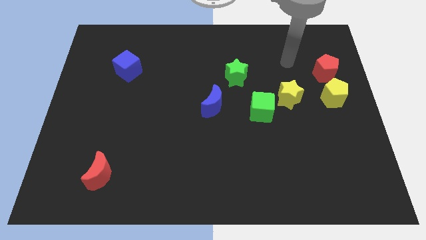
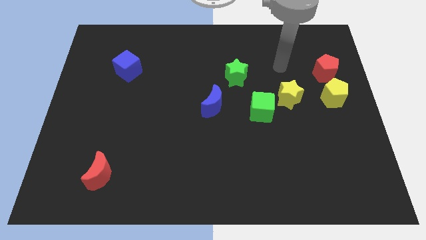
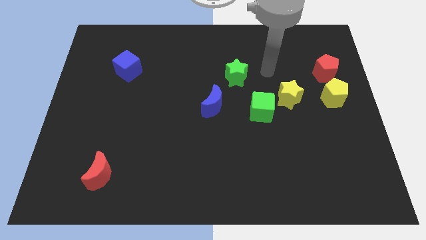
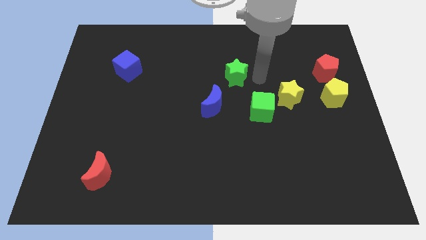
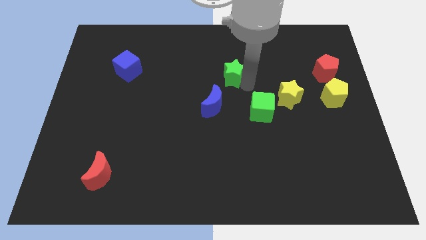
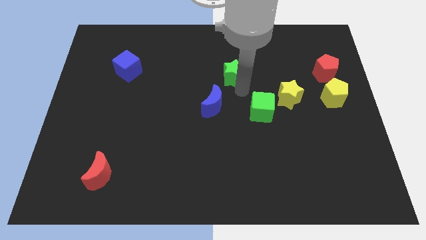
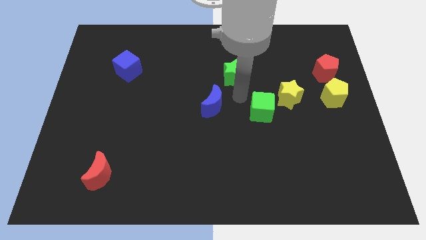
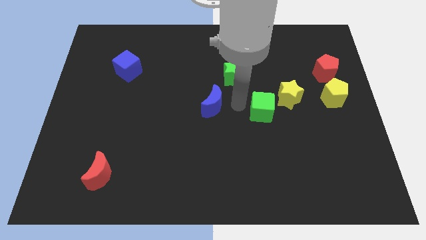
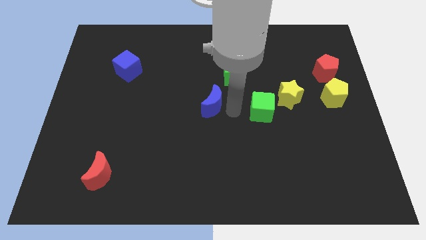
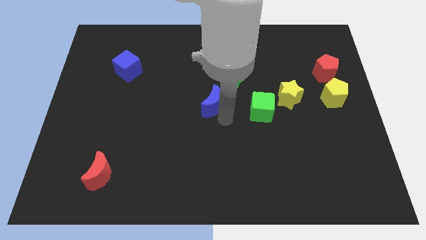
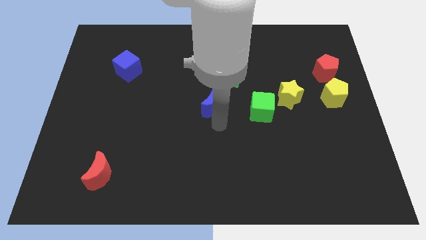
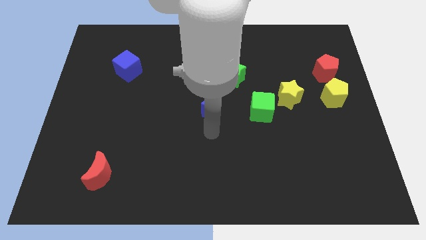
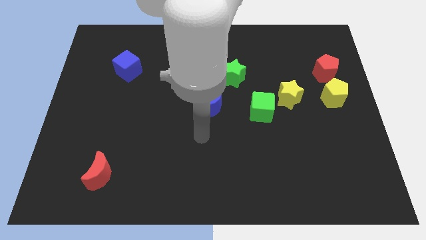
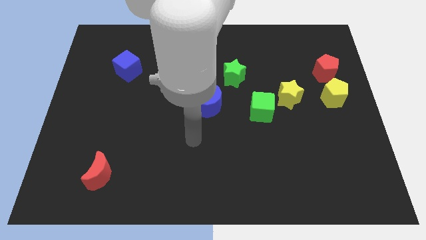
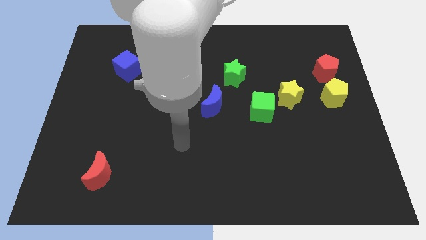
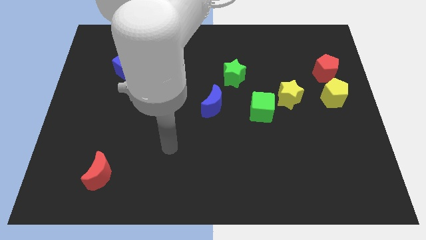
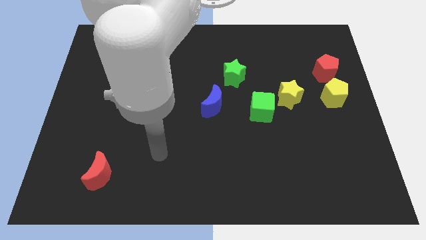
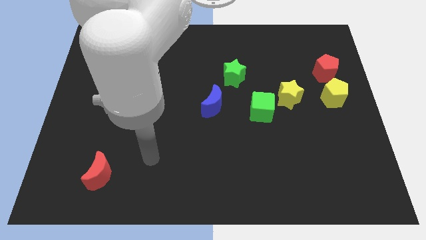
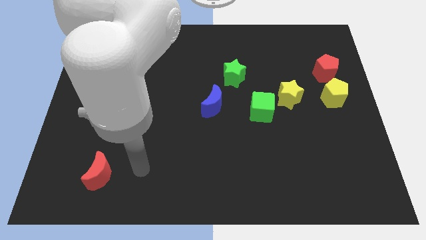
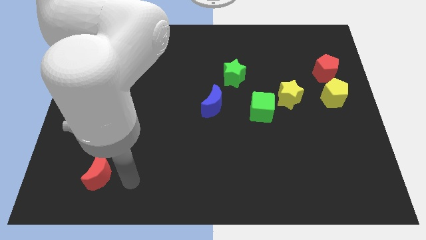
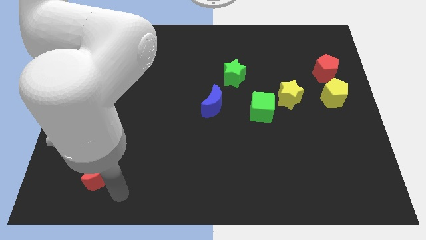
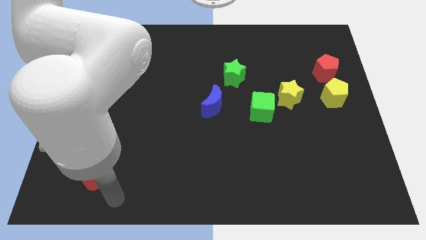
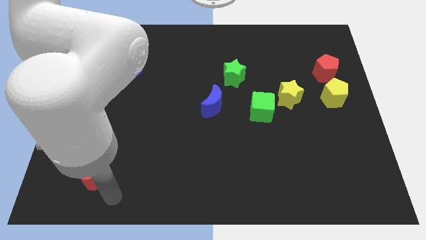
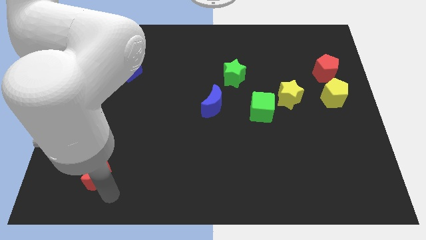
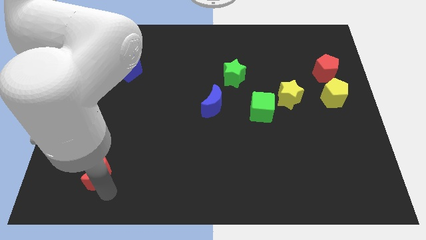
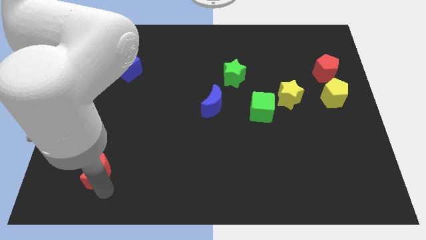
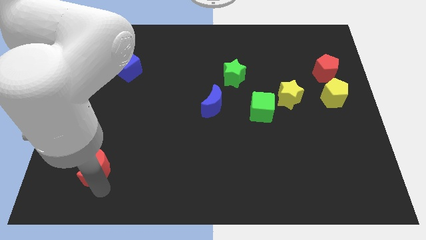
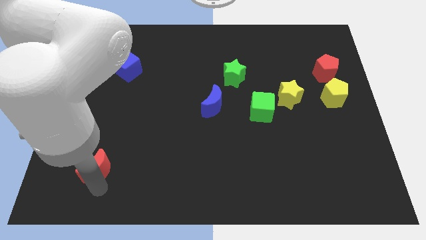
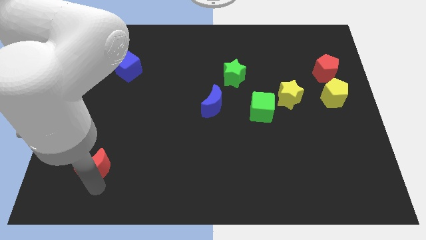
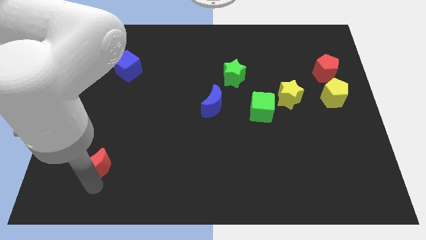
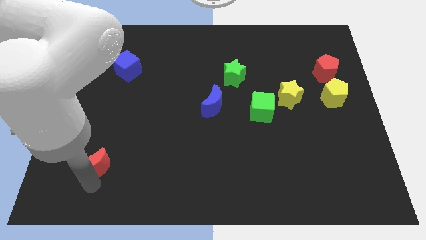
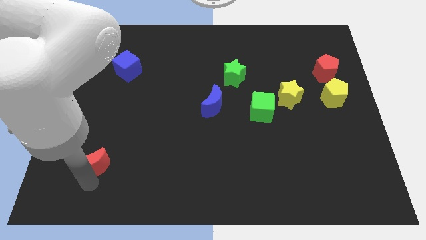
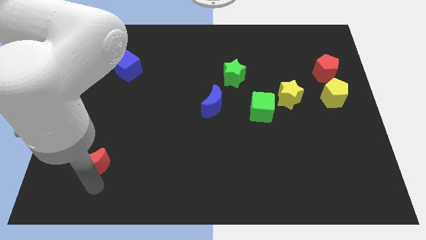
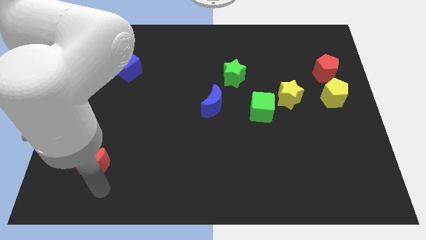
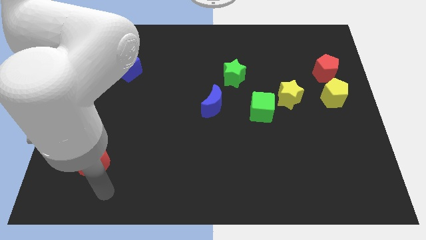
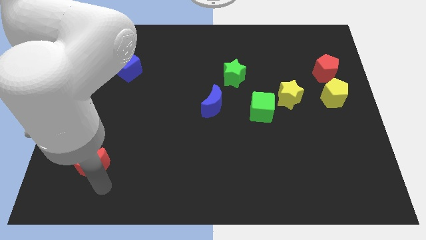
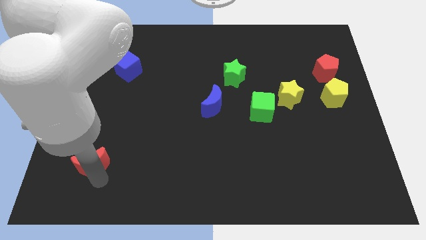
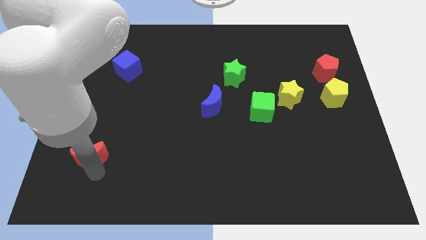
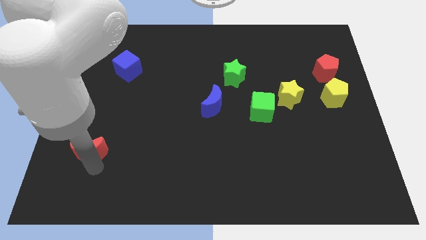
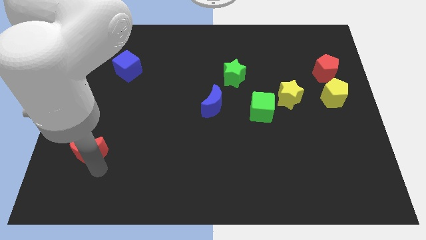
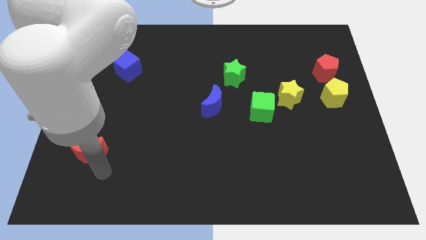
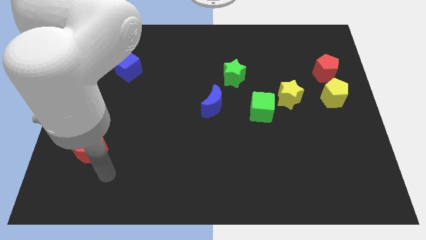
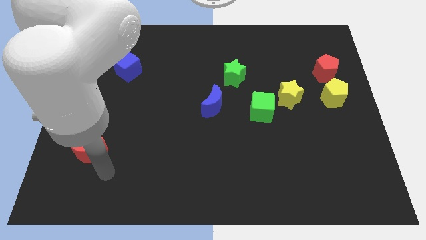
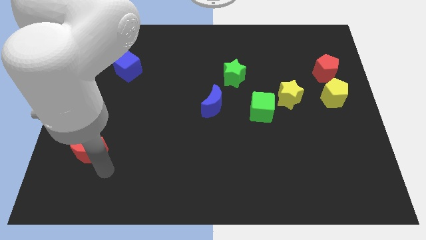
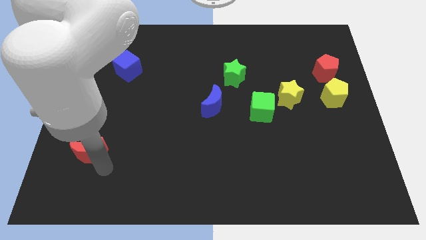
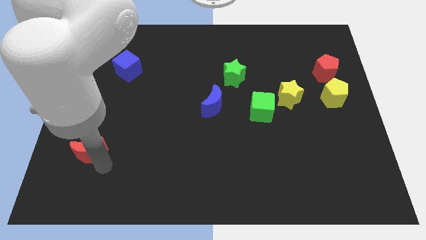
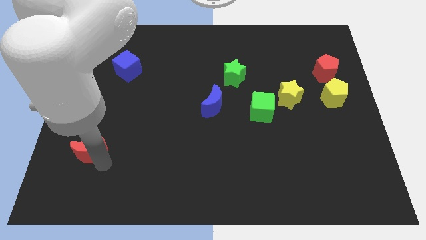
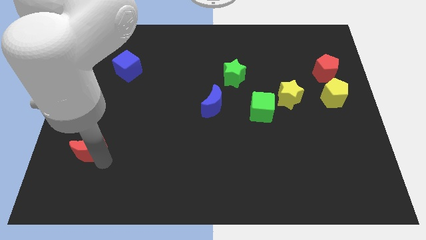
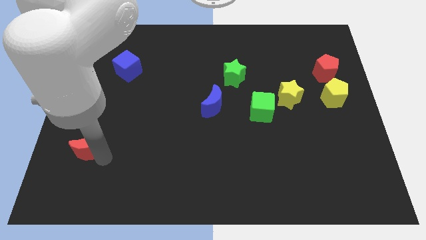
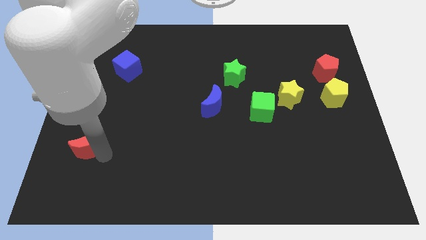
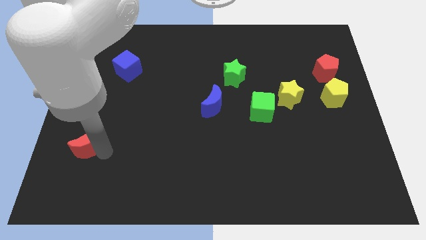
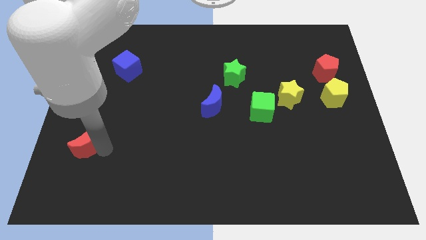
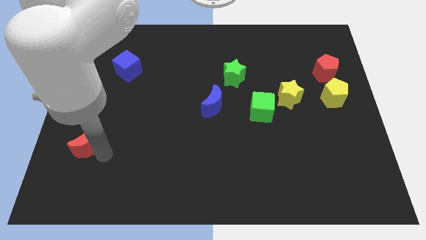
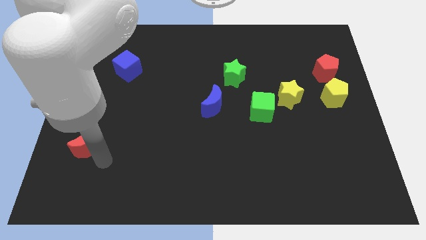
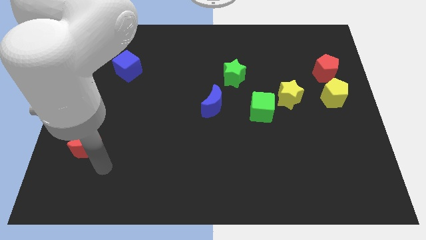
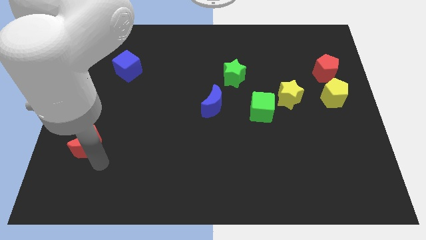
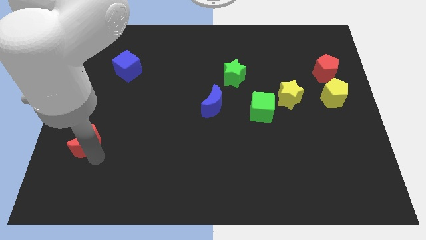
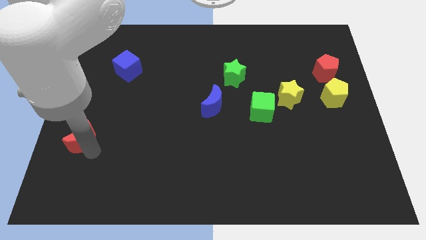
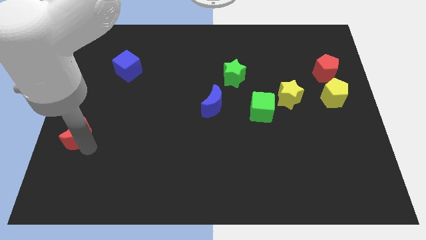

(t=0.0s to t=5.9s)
move the red moon to the left side of the board

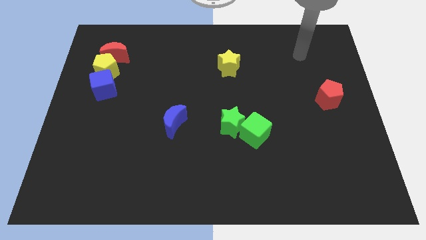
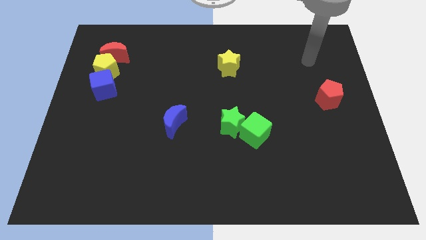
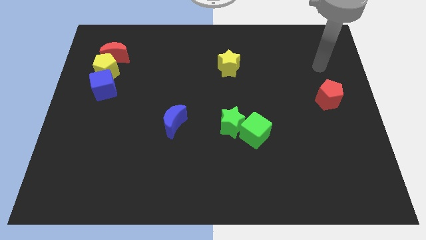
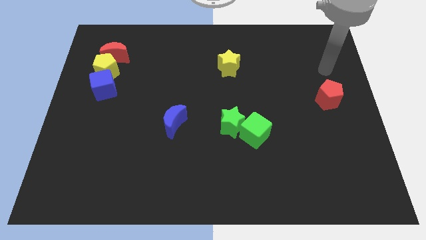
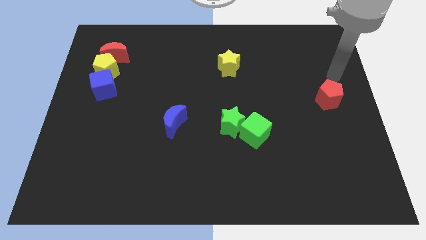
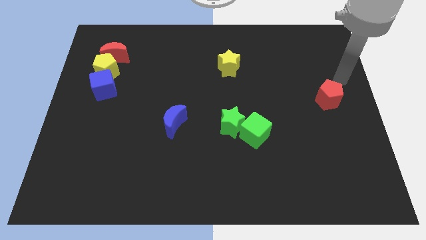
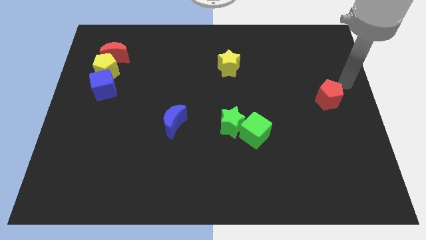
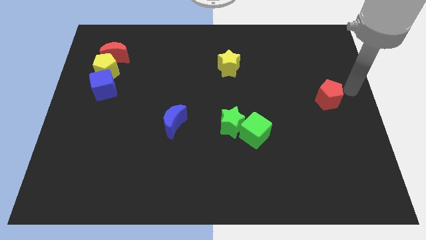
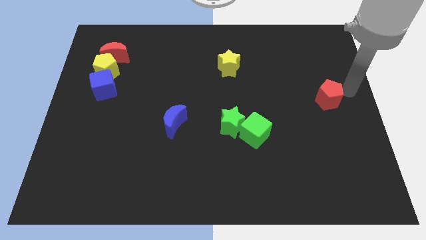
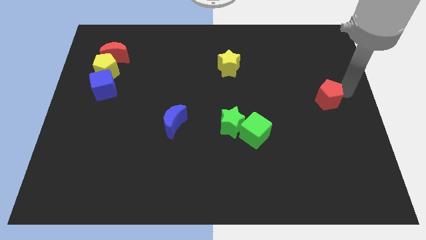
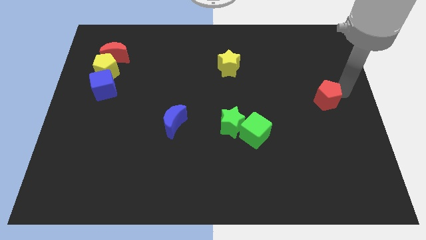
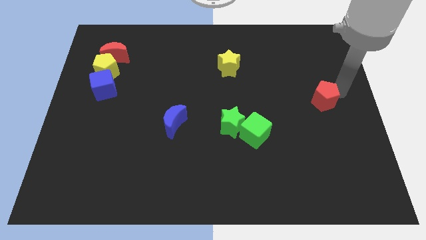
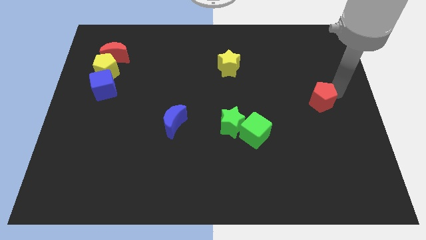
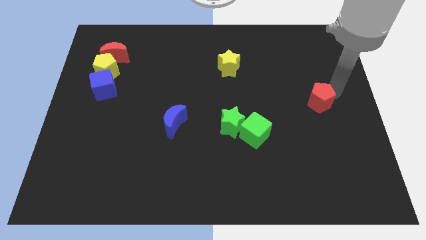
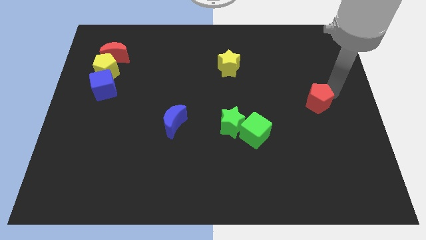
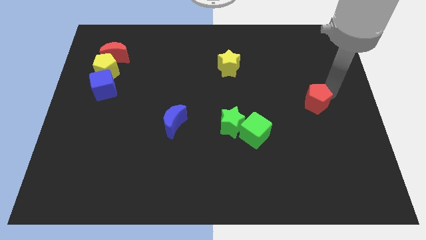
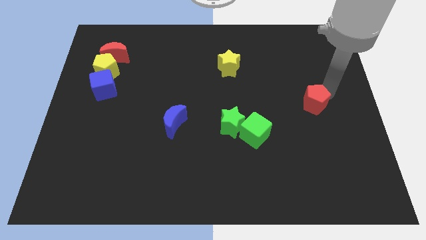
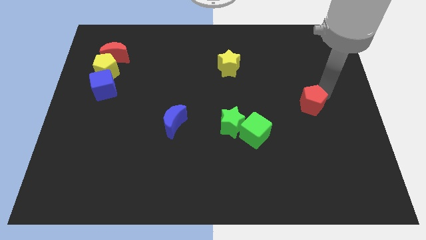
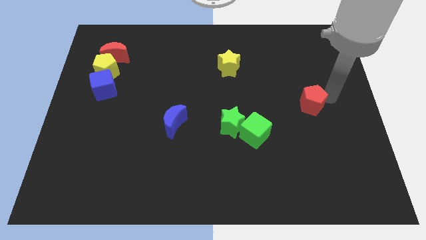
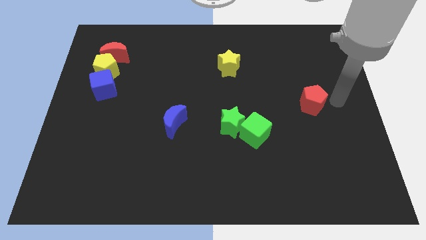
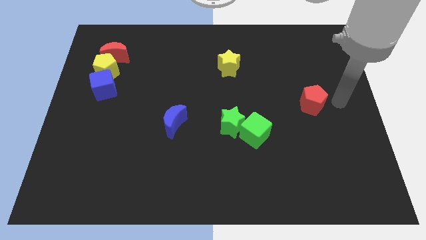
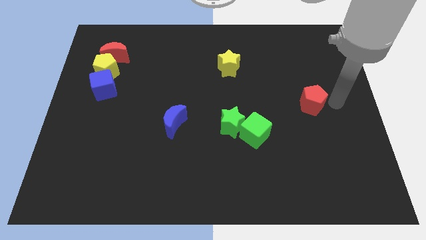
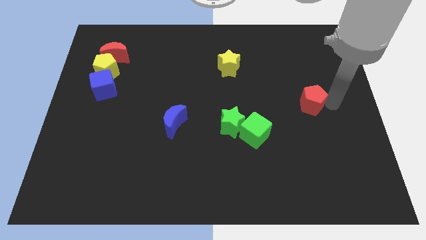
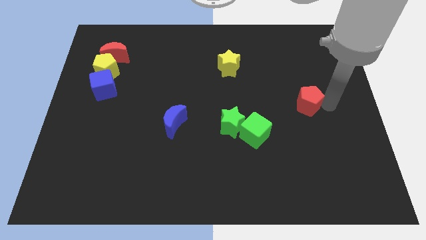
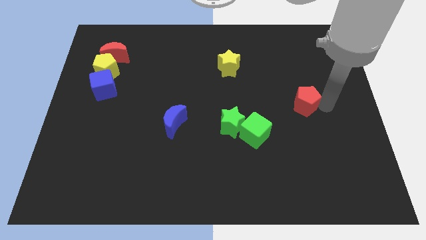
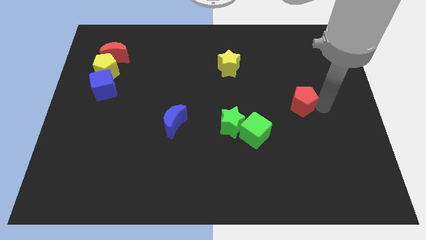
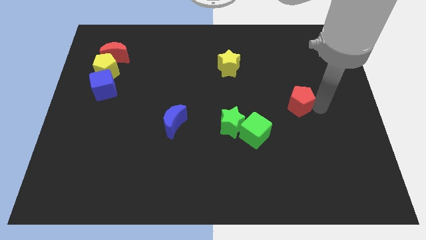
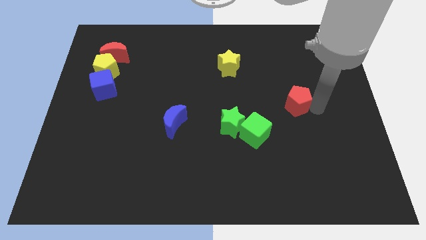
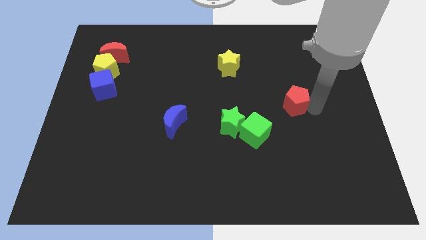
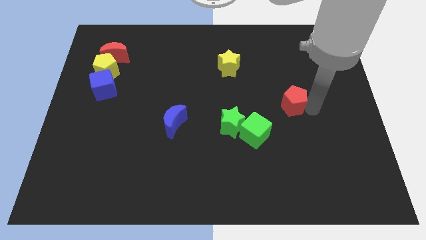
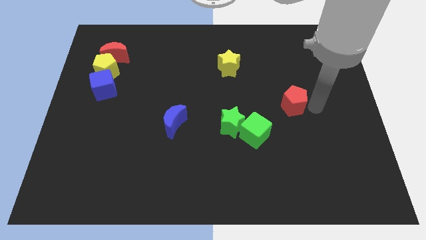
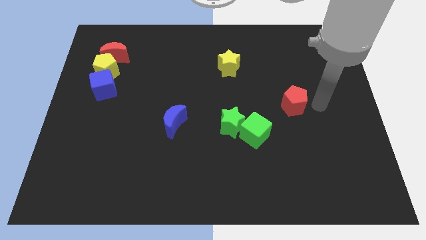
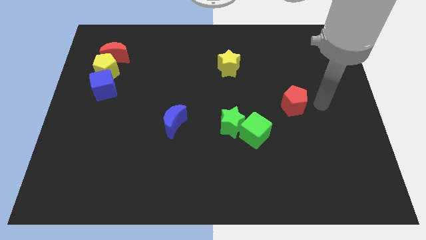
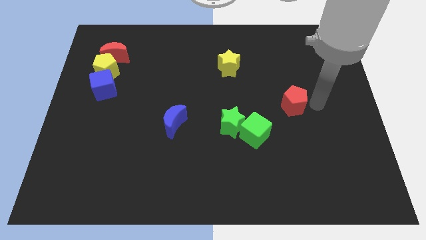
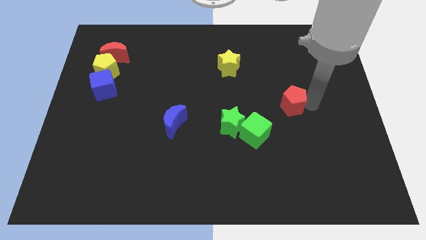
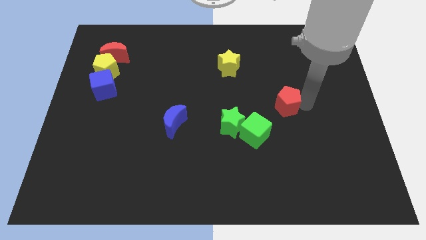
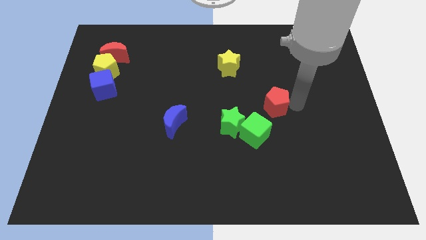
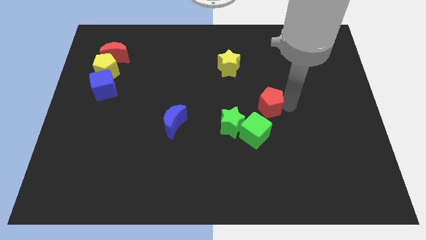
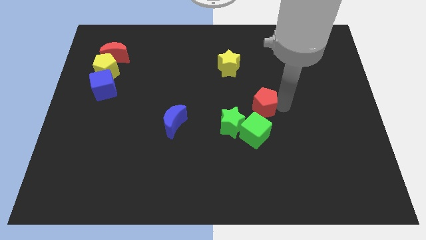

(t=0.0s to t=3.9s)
slide the red pentagon to the middle of the board
